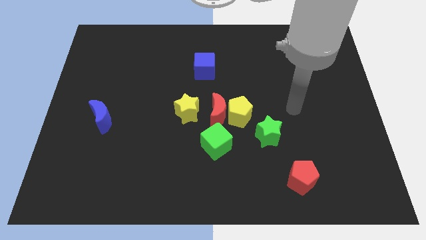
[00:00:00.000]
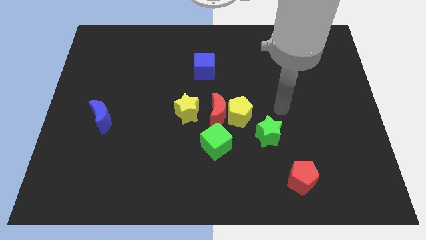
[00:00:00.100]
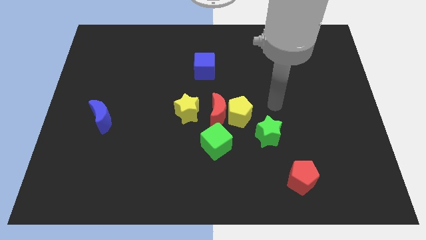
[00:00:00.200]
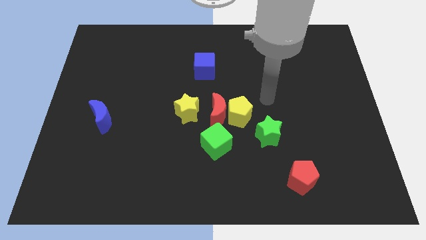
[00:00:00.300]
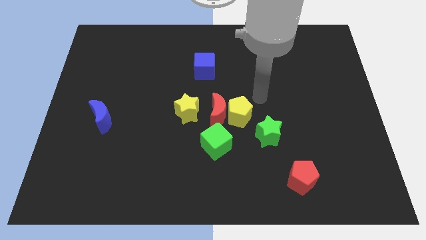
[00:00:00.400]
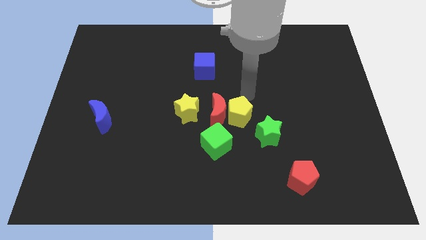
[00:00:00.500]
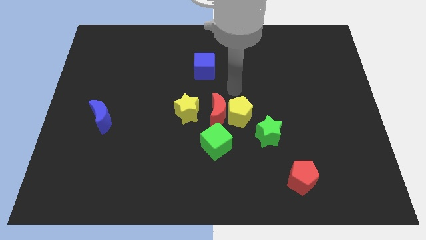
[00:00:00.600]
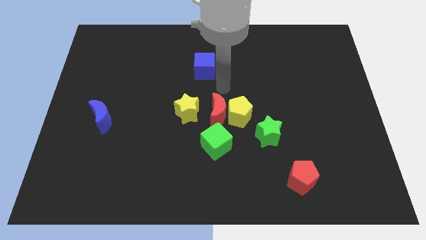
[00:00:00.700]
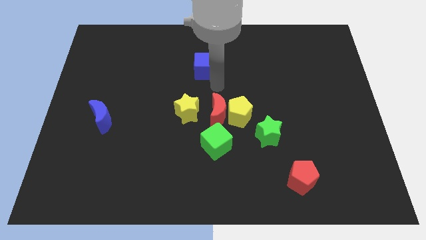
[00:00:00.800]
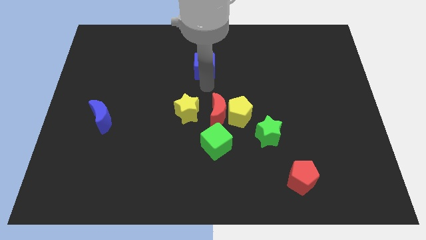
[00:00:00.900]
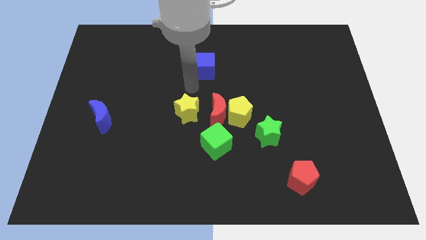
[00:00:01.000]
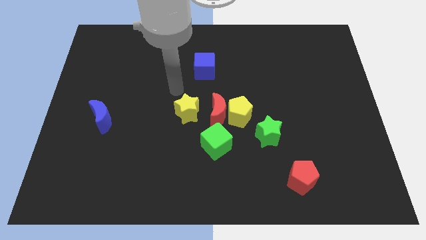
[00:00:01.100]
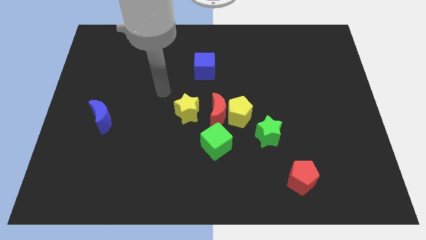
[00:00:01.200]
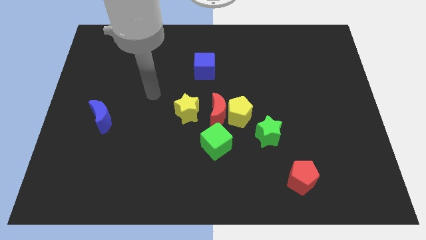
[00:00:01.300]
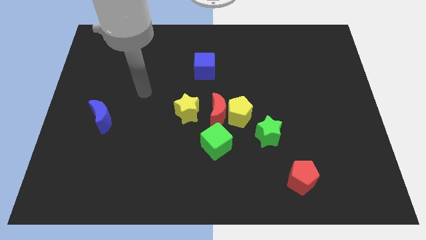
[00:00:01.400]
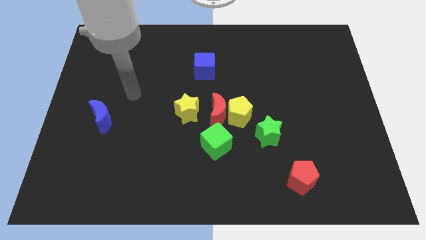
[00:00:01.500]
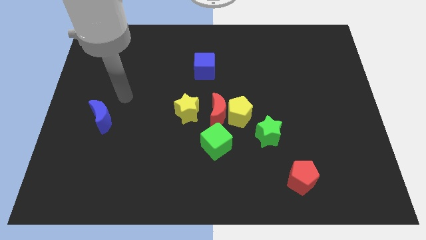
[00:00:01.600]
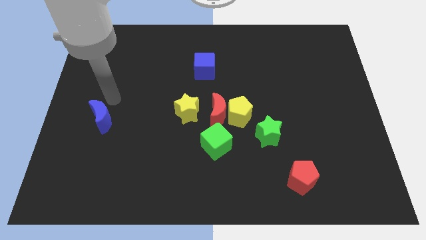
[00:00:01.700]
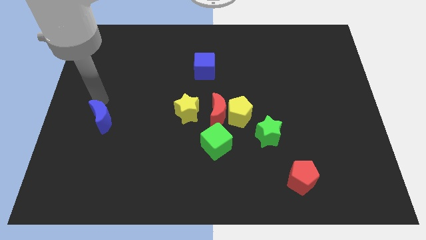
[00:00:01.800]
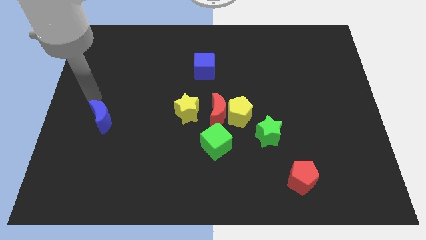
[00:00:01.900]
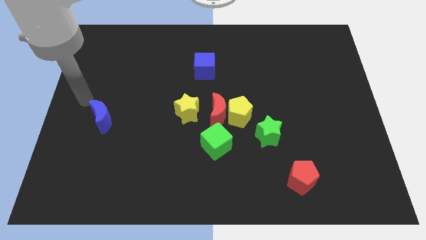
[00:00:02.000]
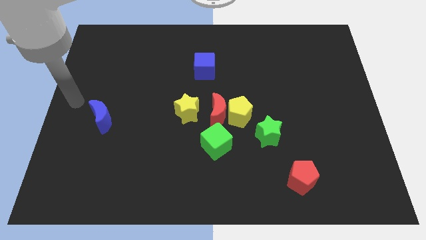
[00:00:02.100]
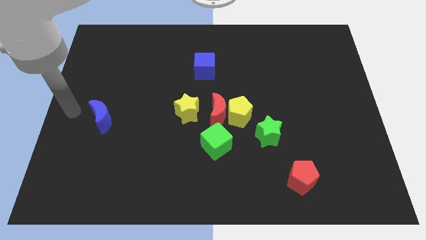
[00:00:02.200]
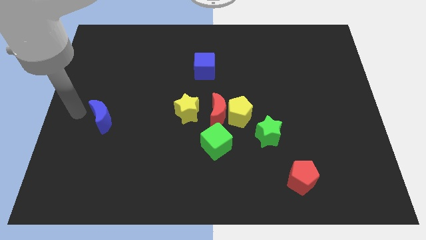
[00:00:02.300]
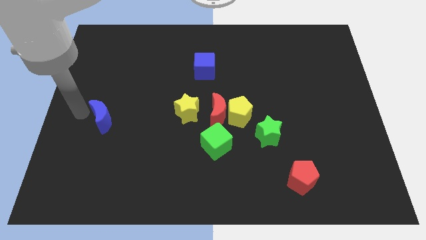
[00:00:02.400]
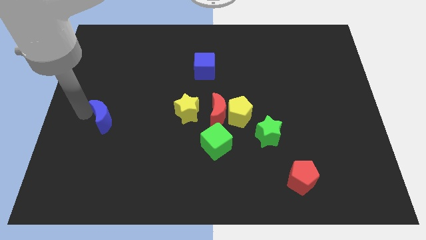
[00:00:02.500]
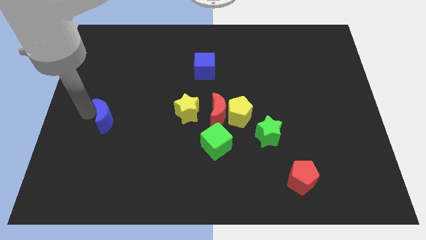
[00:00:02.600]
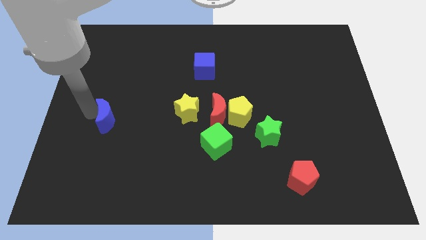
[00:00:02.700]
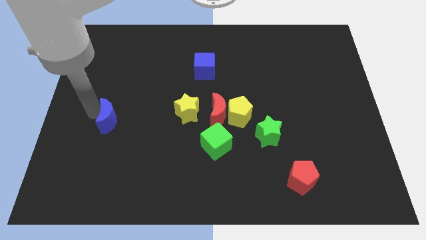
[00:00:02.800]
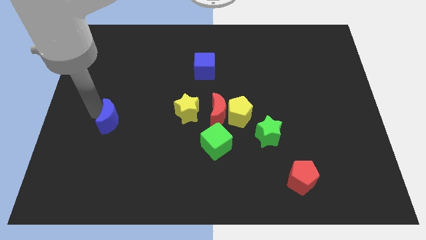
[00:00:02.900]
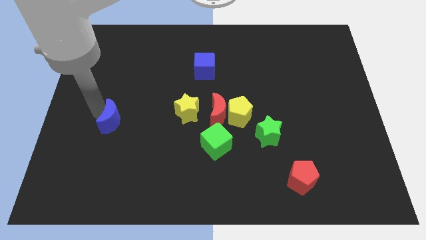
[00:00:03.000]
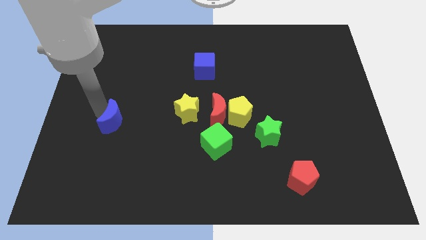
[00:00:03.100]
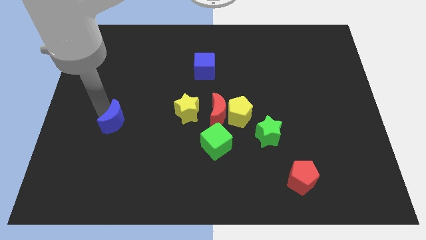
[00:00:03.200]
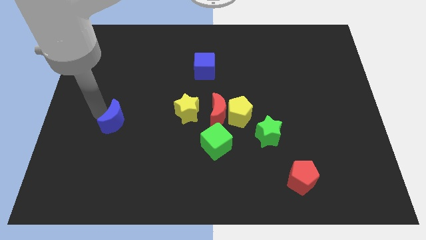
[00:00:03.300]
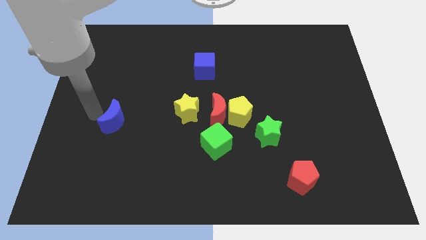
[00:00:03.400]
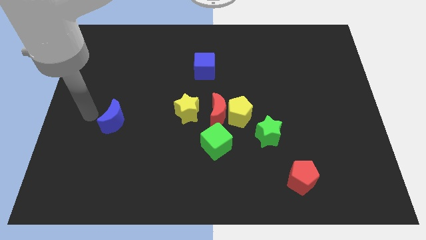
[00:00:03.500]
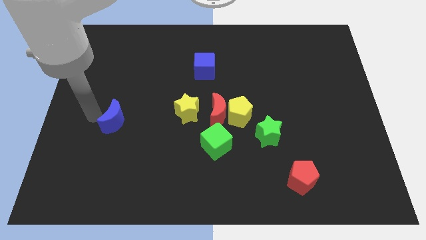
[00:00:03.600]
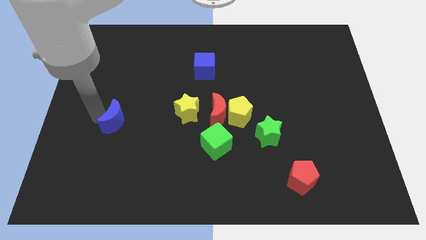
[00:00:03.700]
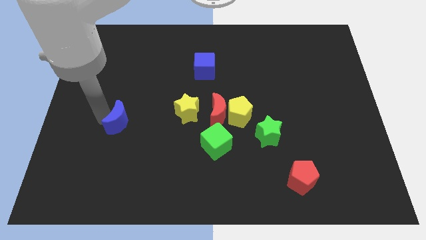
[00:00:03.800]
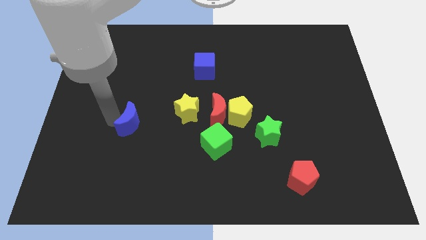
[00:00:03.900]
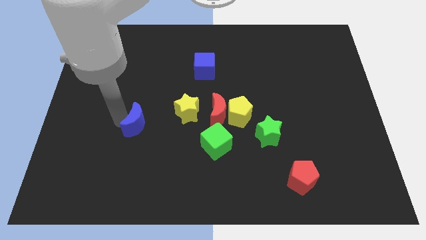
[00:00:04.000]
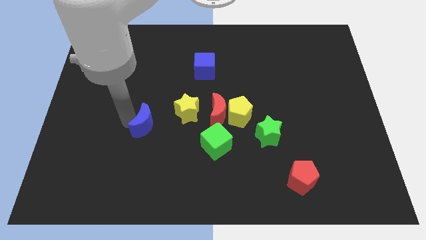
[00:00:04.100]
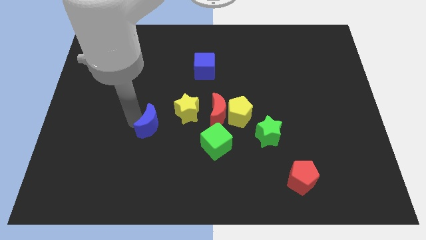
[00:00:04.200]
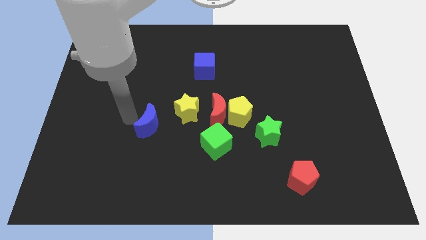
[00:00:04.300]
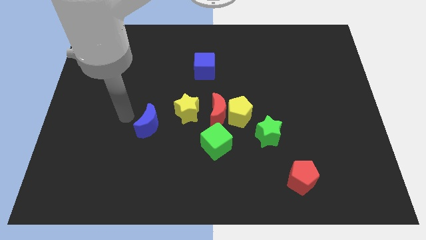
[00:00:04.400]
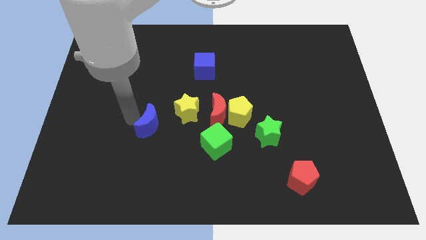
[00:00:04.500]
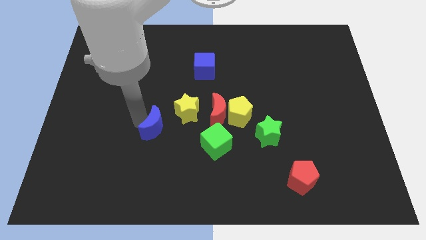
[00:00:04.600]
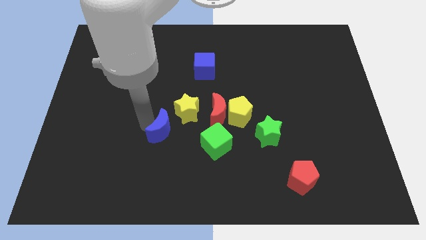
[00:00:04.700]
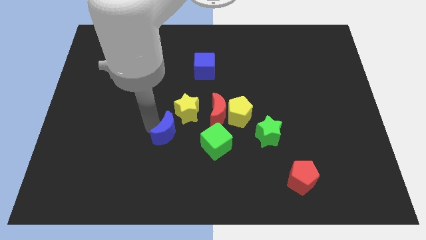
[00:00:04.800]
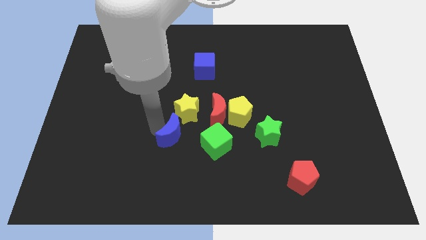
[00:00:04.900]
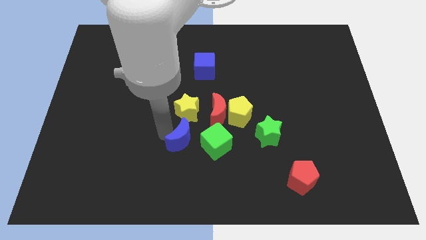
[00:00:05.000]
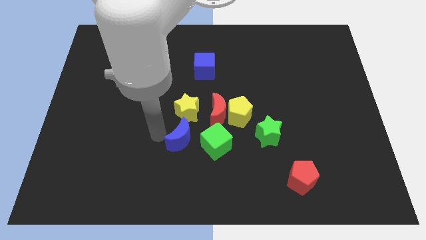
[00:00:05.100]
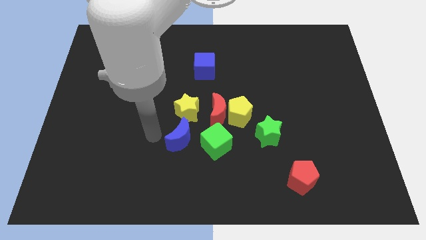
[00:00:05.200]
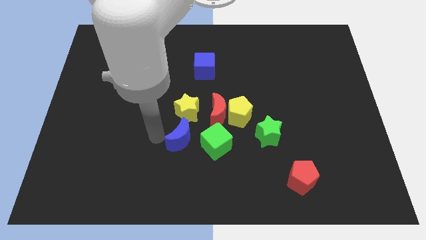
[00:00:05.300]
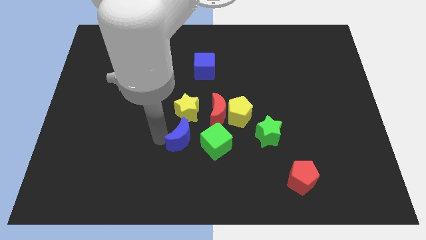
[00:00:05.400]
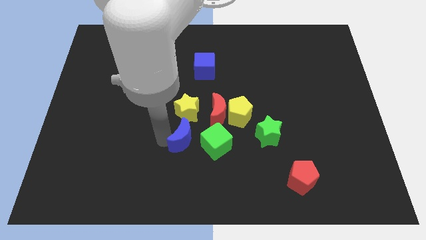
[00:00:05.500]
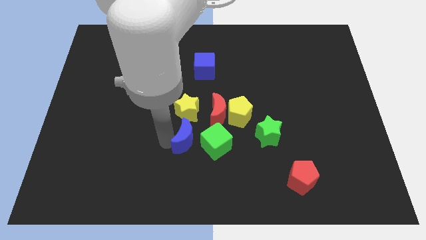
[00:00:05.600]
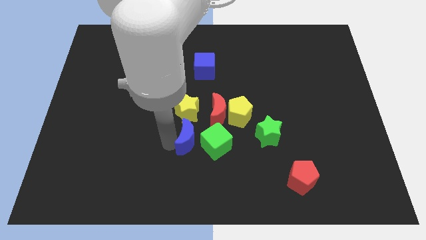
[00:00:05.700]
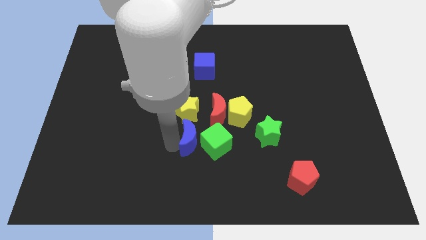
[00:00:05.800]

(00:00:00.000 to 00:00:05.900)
put the blue moon next to the green cube

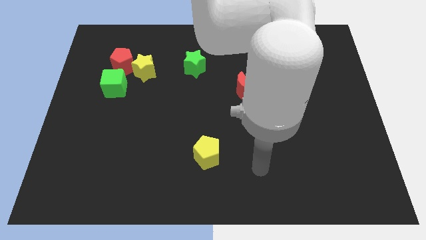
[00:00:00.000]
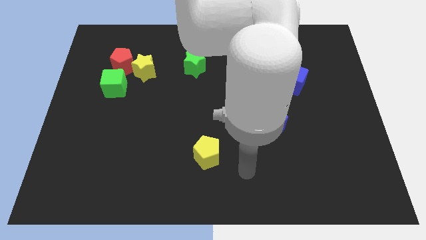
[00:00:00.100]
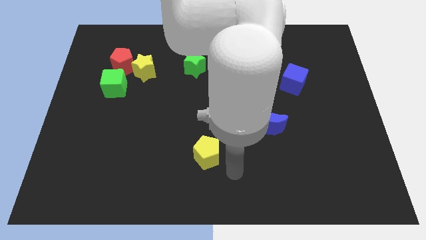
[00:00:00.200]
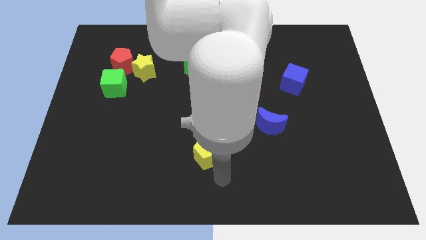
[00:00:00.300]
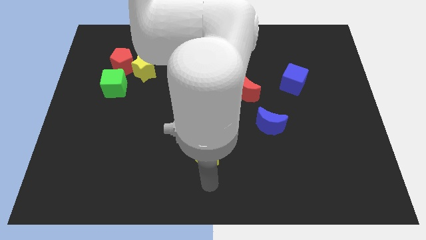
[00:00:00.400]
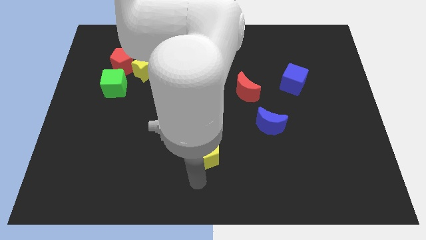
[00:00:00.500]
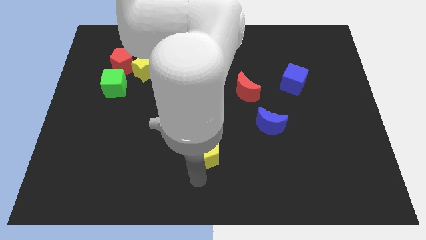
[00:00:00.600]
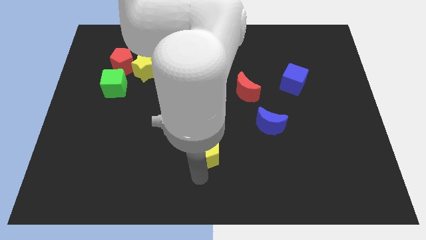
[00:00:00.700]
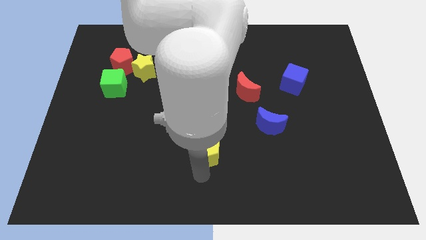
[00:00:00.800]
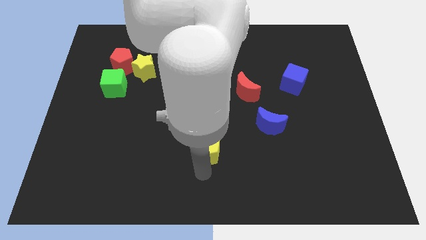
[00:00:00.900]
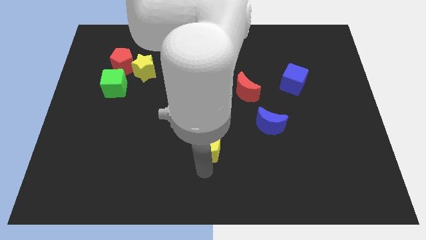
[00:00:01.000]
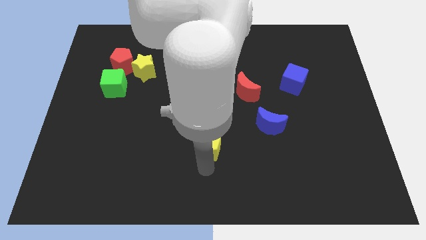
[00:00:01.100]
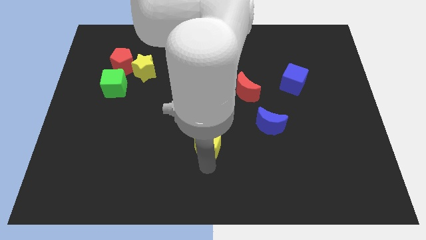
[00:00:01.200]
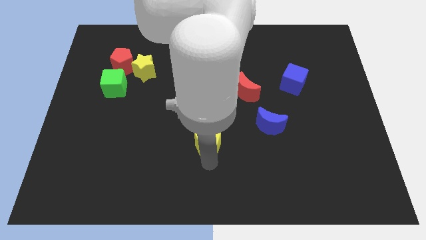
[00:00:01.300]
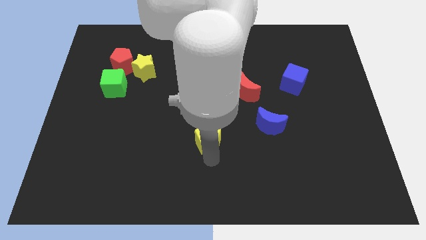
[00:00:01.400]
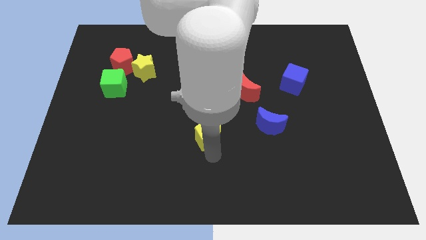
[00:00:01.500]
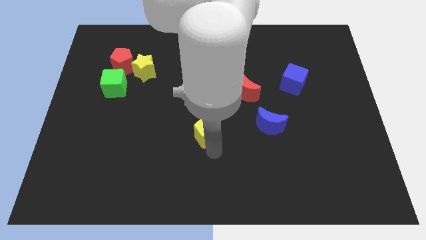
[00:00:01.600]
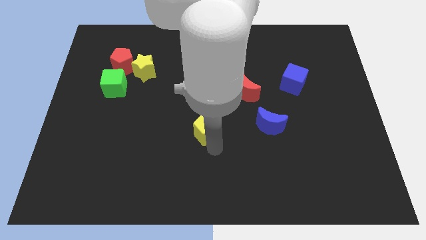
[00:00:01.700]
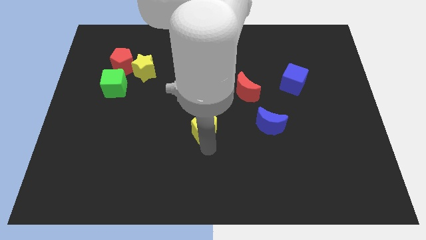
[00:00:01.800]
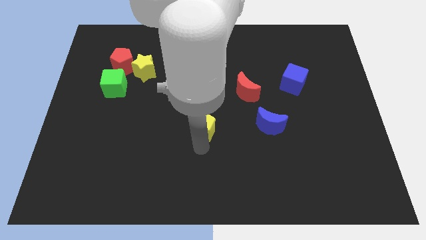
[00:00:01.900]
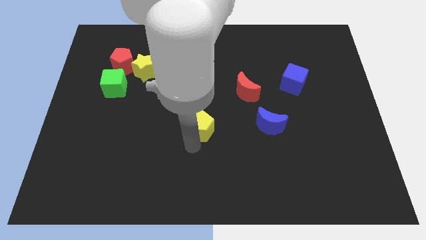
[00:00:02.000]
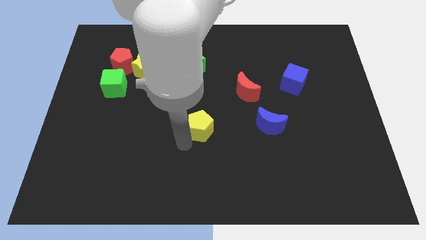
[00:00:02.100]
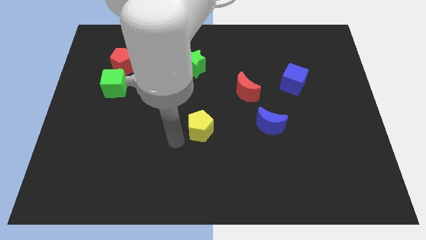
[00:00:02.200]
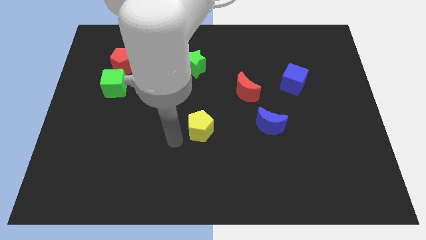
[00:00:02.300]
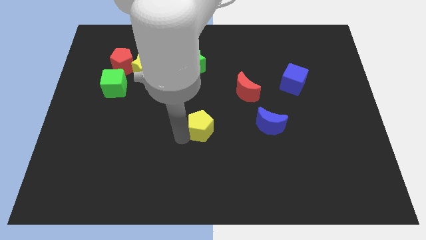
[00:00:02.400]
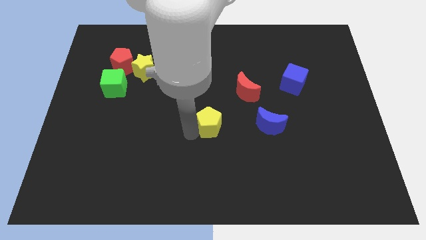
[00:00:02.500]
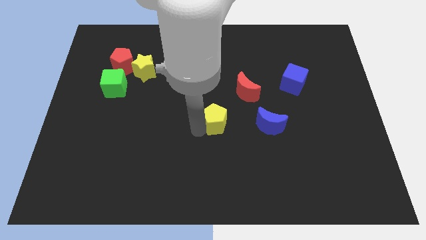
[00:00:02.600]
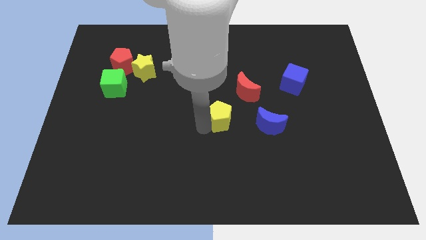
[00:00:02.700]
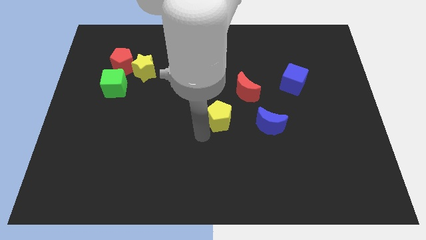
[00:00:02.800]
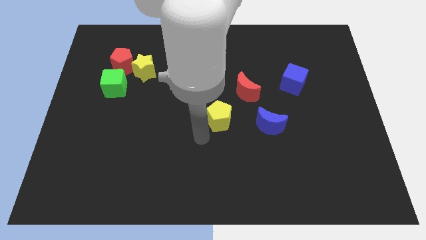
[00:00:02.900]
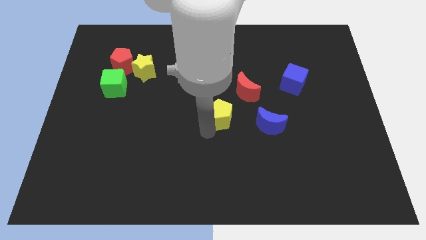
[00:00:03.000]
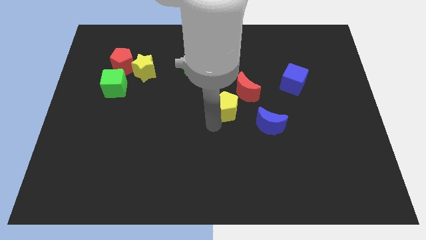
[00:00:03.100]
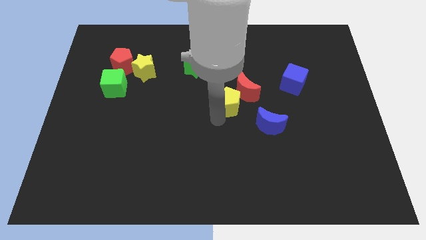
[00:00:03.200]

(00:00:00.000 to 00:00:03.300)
slide the yellow pentagon next to the red moon
